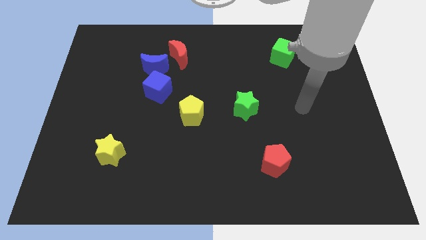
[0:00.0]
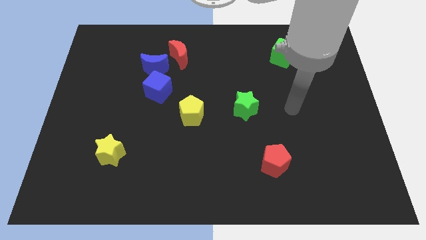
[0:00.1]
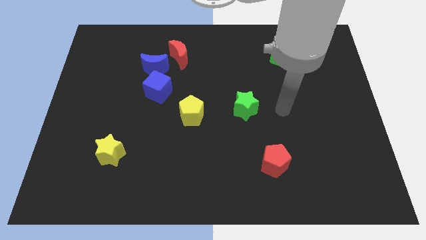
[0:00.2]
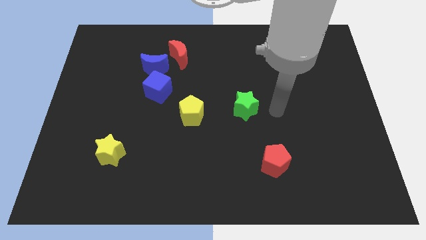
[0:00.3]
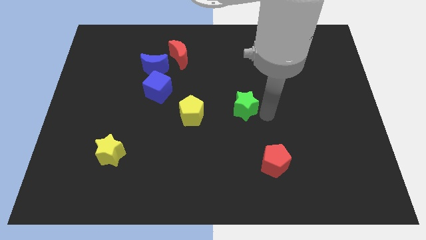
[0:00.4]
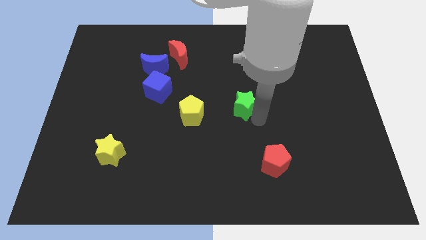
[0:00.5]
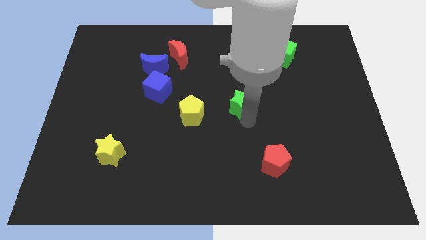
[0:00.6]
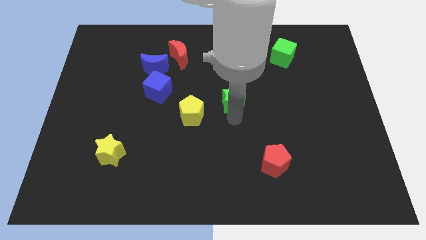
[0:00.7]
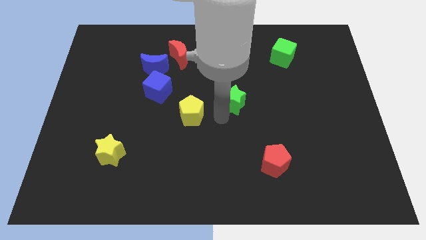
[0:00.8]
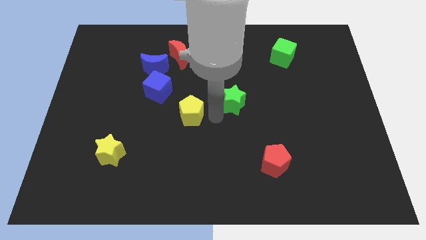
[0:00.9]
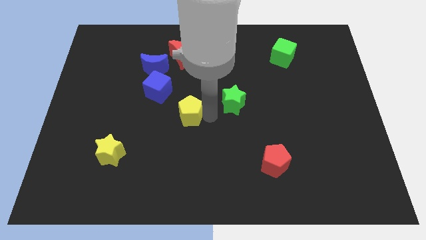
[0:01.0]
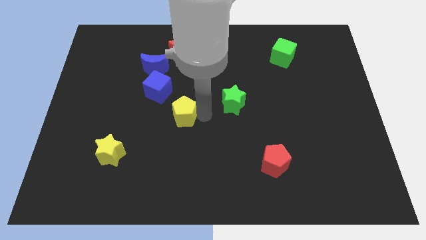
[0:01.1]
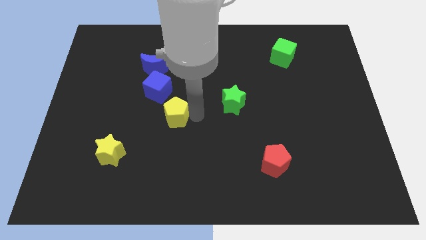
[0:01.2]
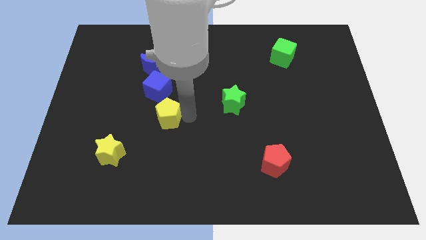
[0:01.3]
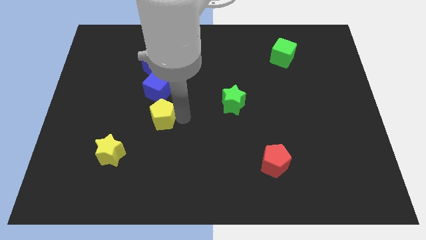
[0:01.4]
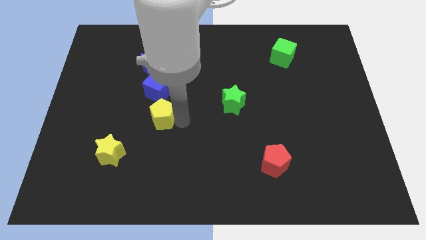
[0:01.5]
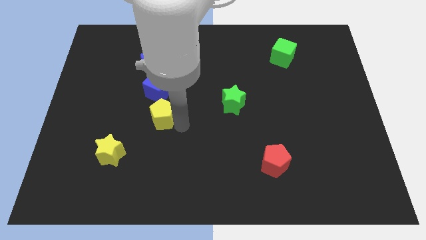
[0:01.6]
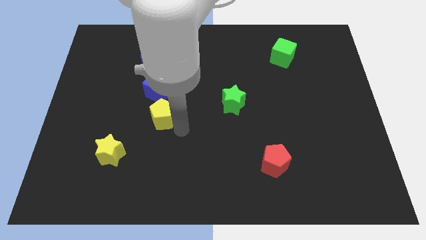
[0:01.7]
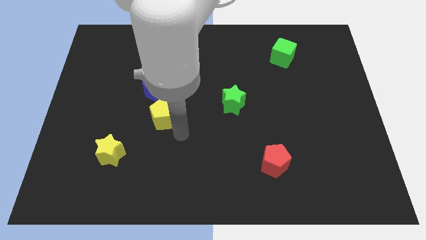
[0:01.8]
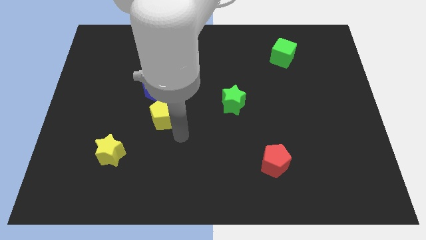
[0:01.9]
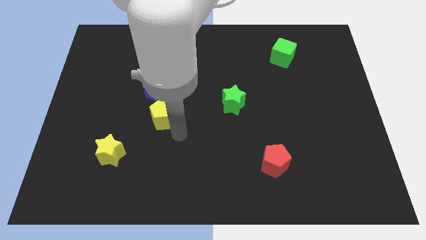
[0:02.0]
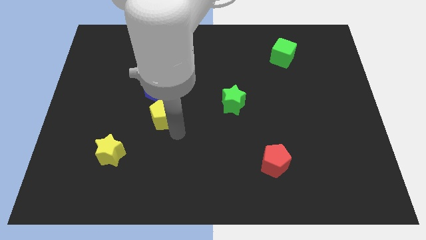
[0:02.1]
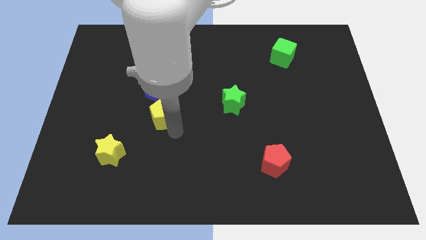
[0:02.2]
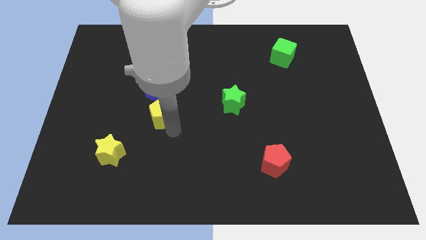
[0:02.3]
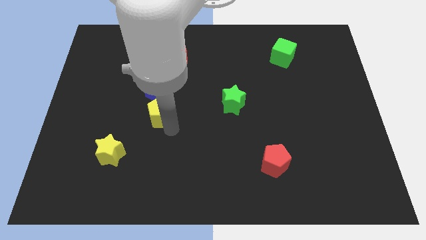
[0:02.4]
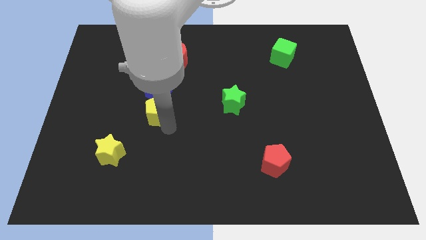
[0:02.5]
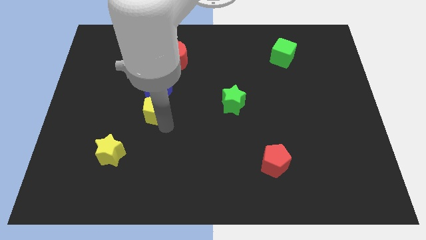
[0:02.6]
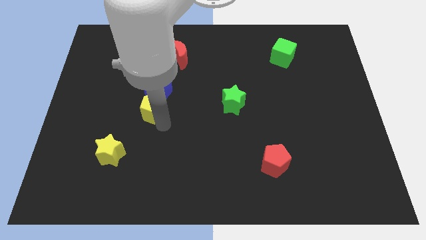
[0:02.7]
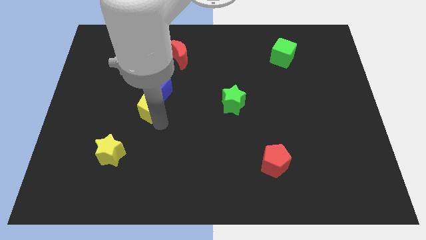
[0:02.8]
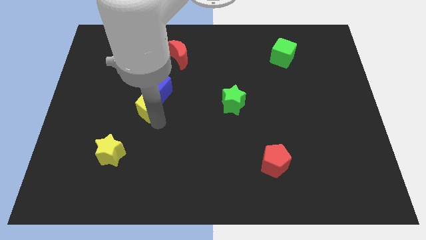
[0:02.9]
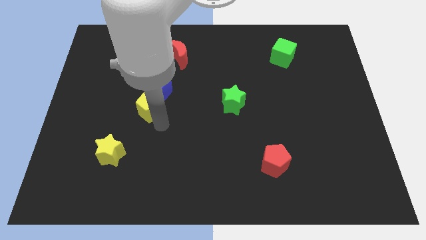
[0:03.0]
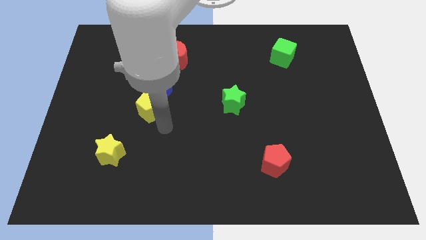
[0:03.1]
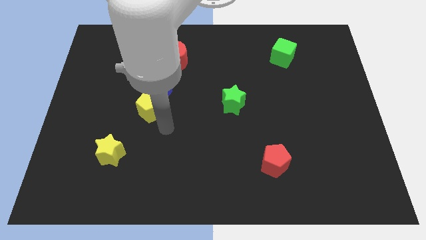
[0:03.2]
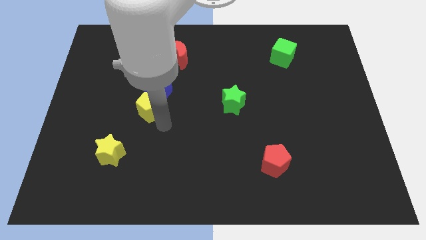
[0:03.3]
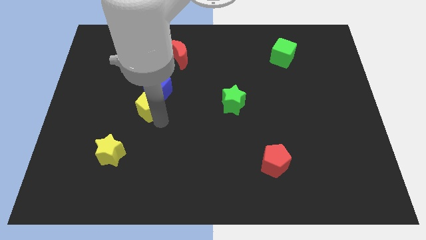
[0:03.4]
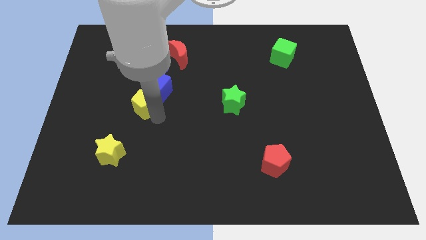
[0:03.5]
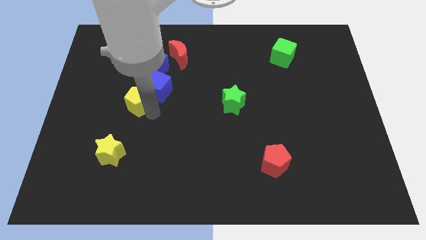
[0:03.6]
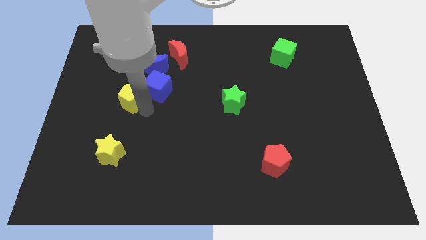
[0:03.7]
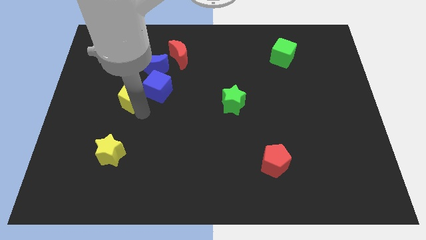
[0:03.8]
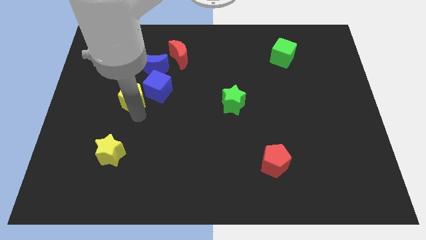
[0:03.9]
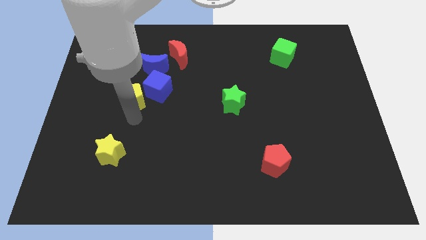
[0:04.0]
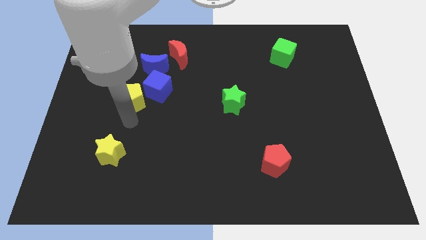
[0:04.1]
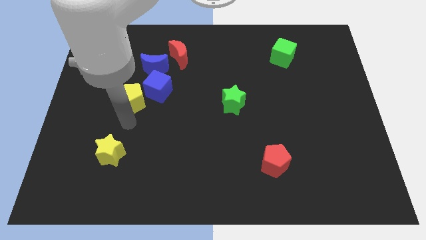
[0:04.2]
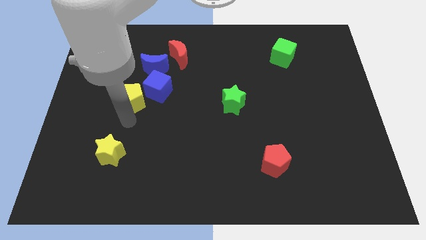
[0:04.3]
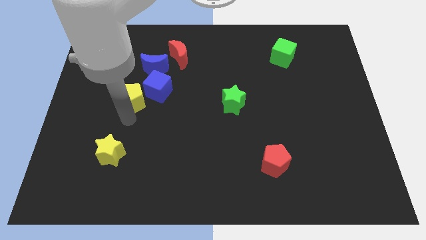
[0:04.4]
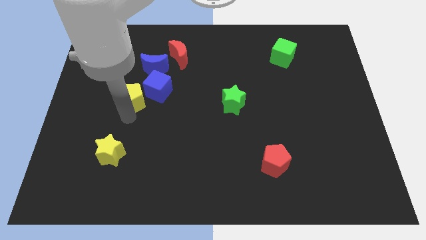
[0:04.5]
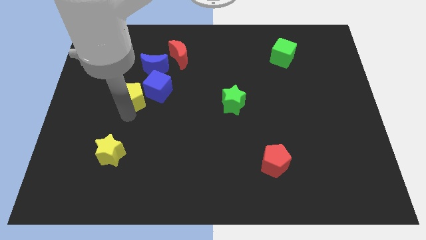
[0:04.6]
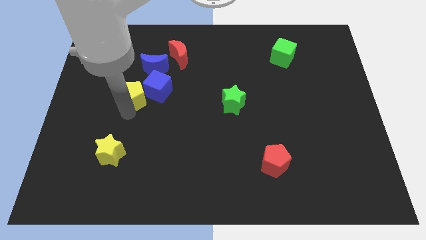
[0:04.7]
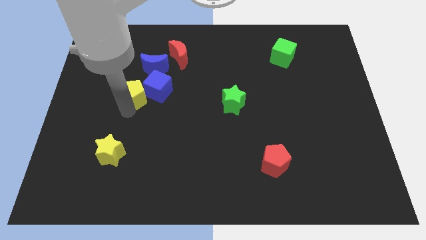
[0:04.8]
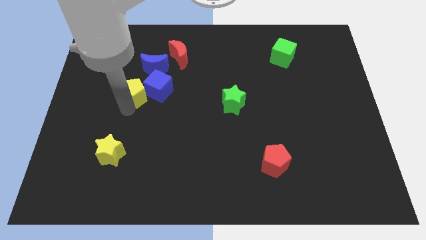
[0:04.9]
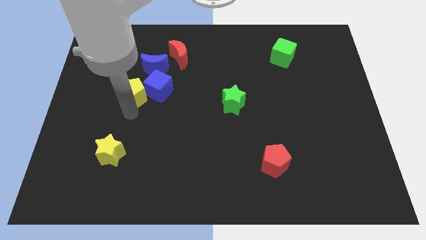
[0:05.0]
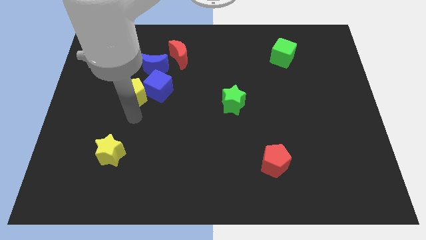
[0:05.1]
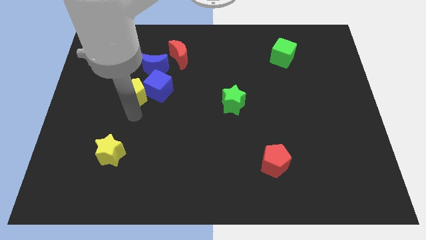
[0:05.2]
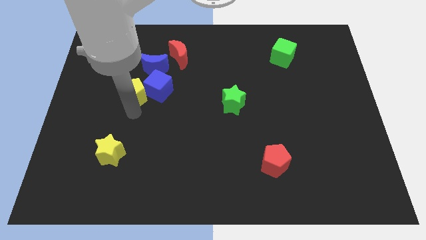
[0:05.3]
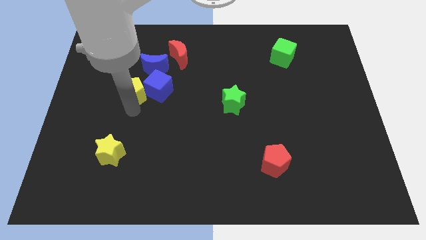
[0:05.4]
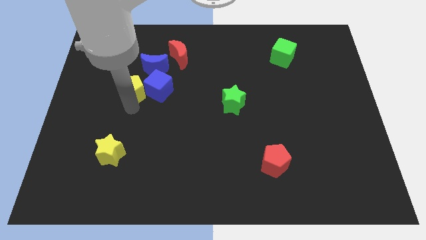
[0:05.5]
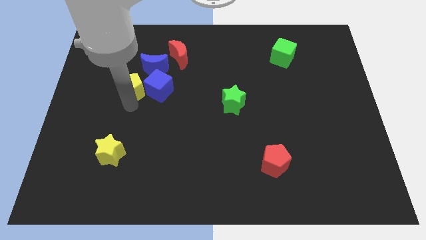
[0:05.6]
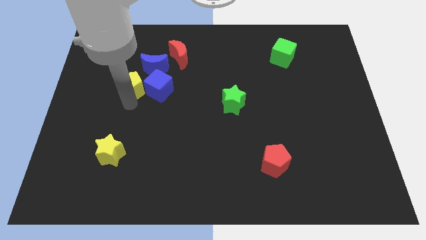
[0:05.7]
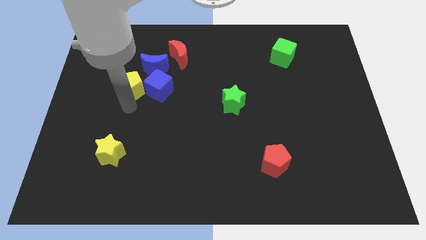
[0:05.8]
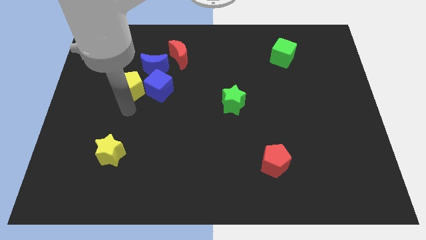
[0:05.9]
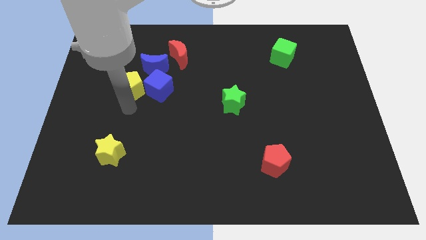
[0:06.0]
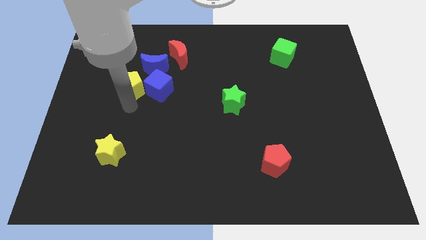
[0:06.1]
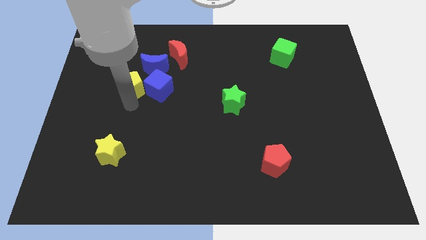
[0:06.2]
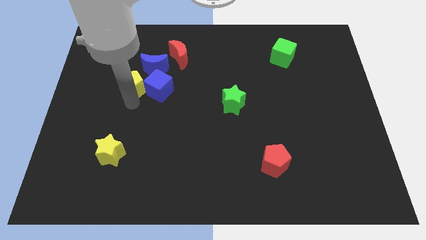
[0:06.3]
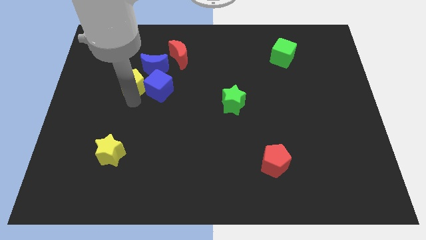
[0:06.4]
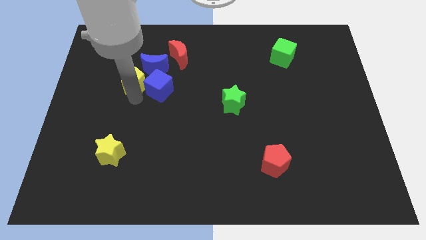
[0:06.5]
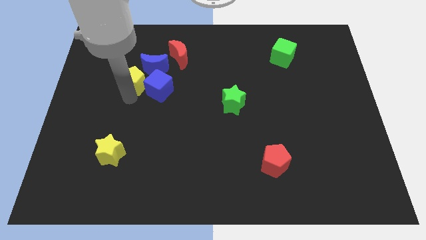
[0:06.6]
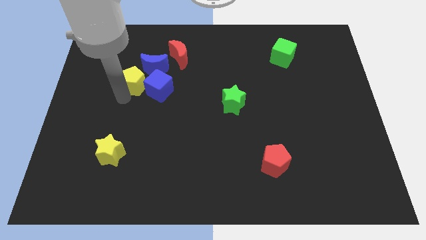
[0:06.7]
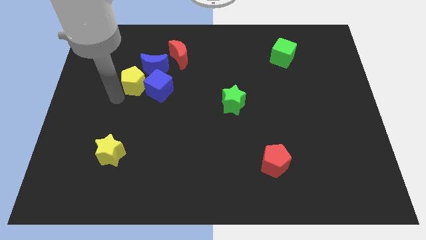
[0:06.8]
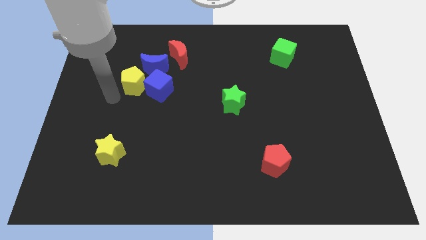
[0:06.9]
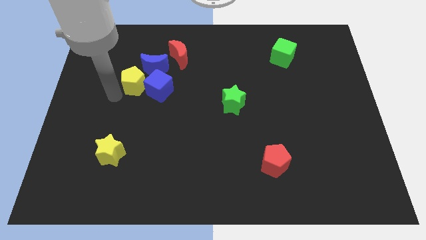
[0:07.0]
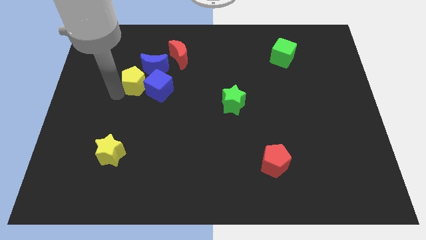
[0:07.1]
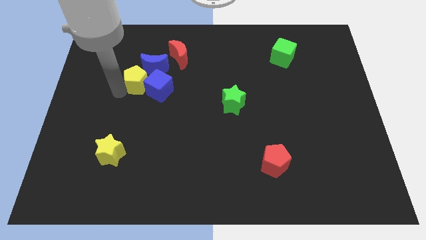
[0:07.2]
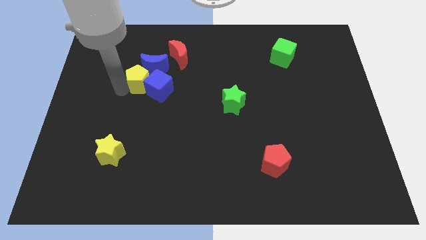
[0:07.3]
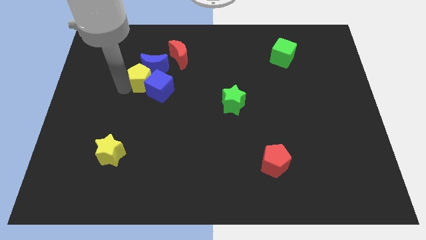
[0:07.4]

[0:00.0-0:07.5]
slide the yellow pentagon diagonally down and to the left of the red moon

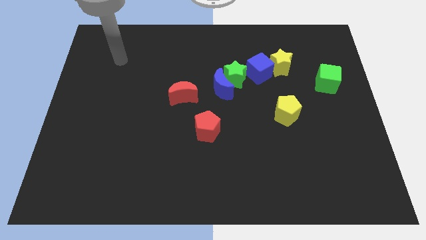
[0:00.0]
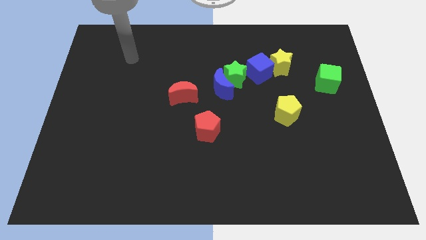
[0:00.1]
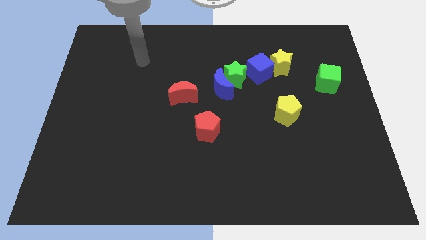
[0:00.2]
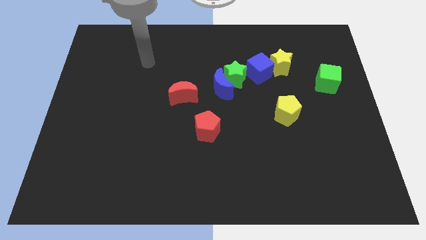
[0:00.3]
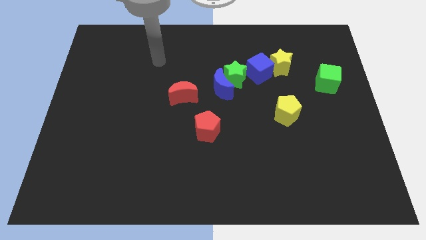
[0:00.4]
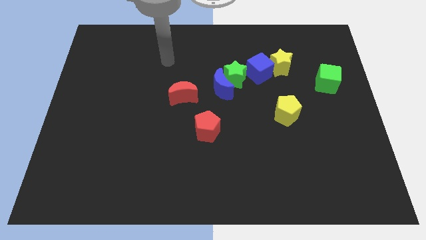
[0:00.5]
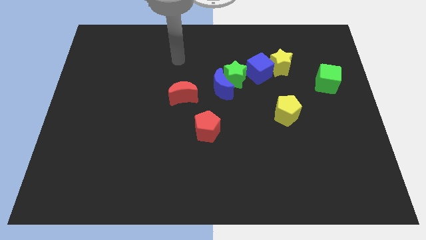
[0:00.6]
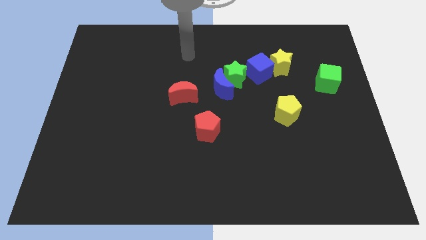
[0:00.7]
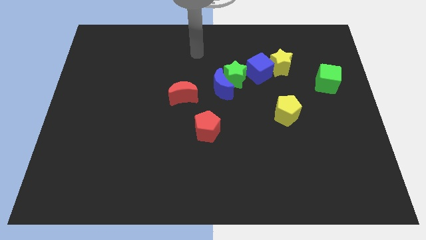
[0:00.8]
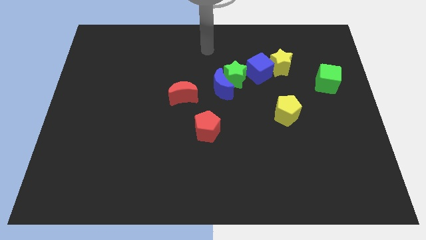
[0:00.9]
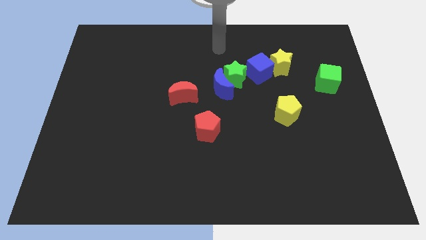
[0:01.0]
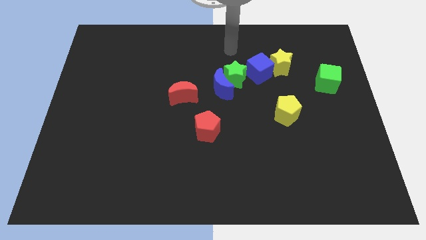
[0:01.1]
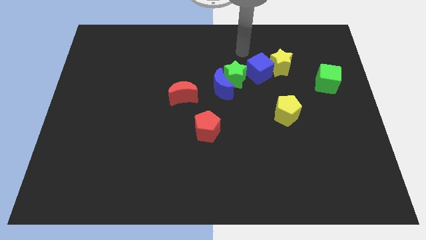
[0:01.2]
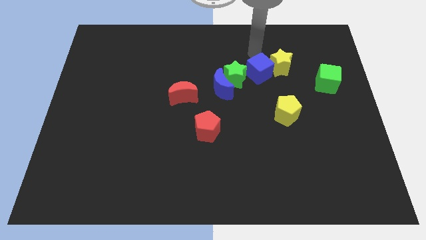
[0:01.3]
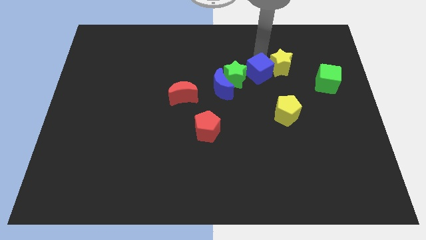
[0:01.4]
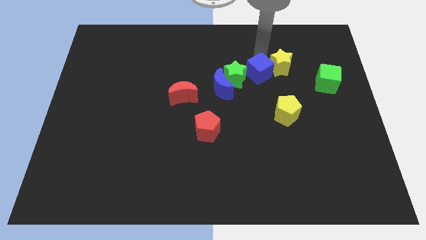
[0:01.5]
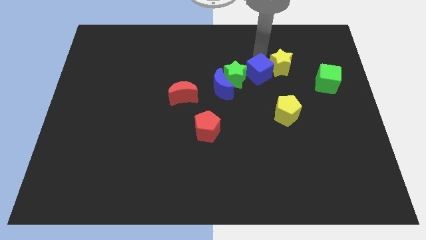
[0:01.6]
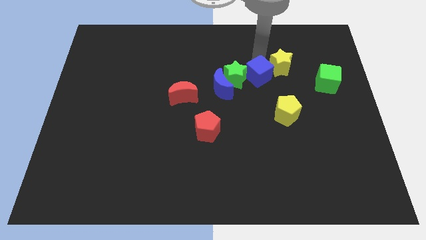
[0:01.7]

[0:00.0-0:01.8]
slide the blue cube to the bottom right of the green star
